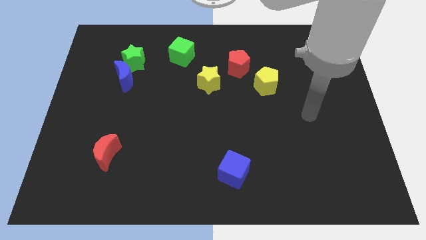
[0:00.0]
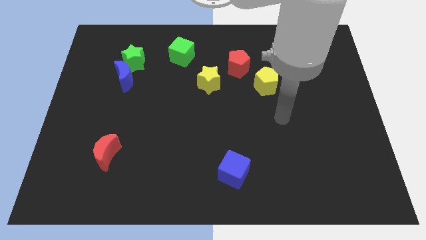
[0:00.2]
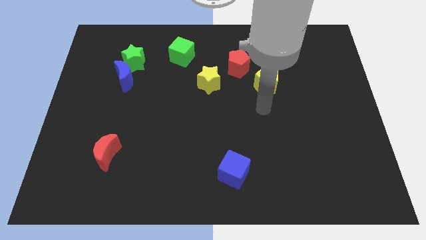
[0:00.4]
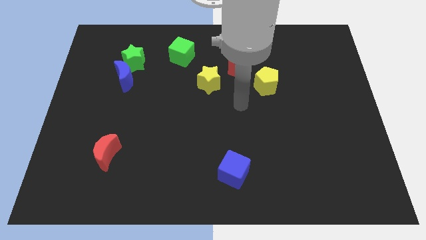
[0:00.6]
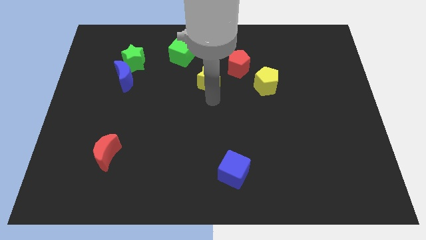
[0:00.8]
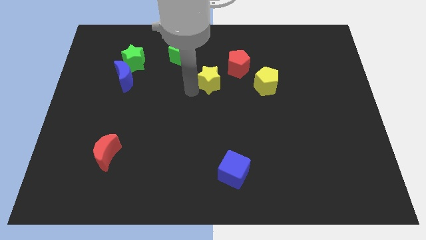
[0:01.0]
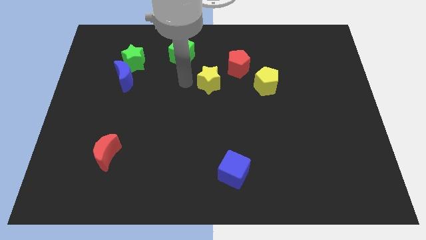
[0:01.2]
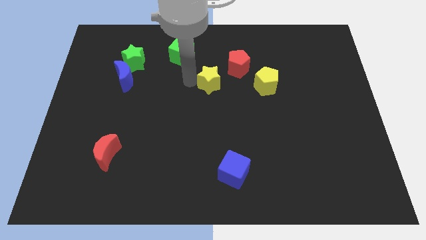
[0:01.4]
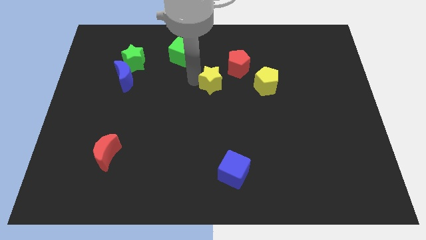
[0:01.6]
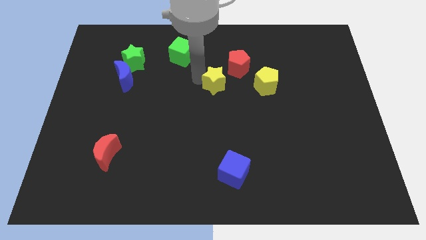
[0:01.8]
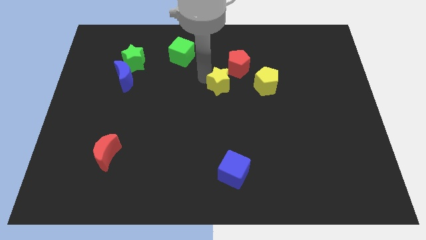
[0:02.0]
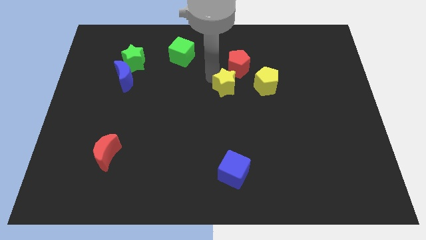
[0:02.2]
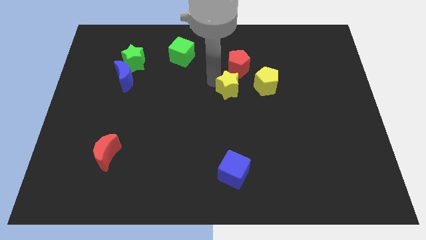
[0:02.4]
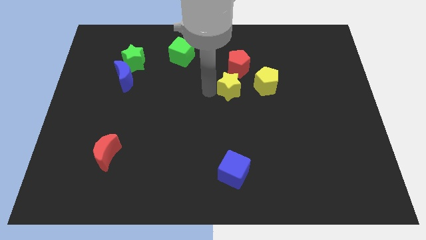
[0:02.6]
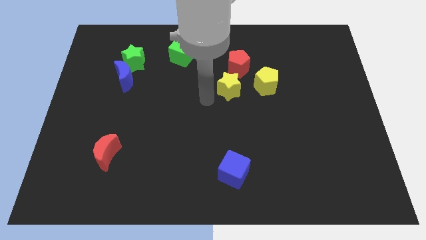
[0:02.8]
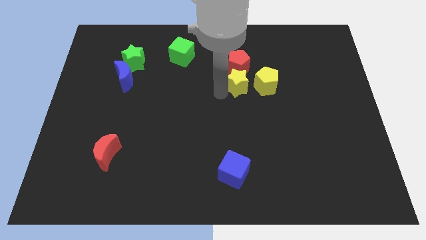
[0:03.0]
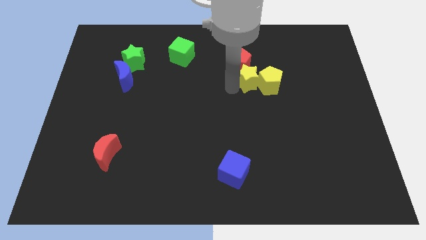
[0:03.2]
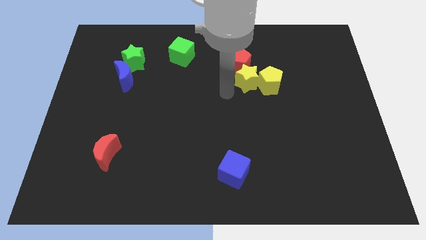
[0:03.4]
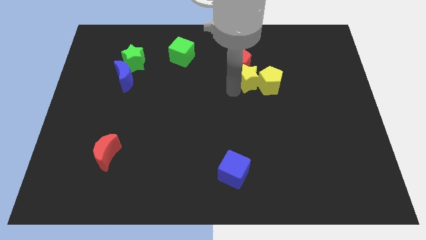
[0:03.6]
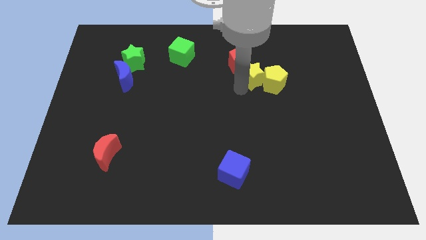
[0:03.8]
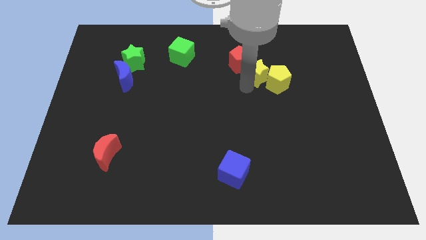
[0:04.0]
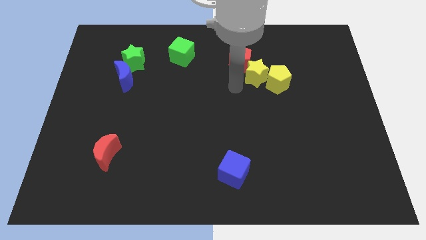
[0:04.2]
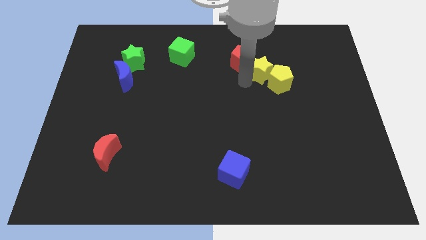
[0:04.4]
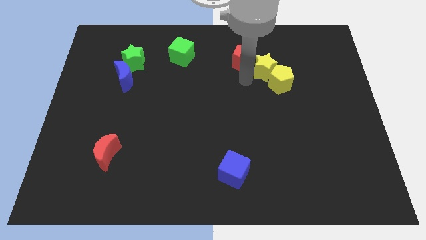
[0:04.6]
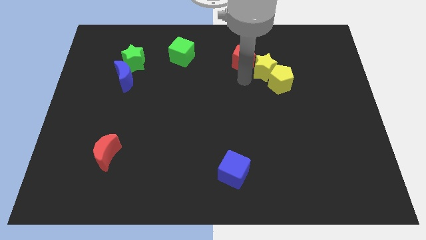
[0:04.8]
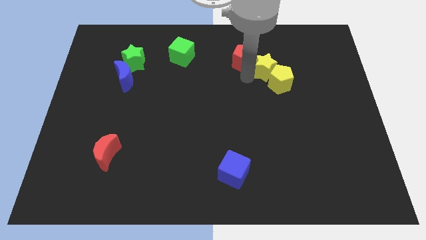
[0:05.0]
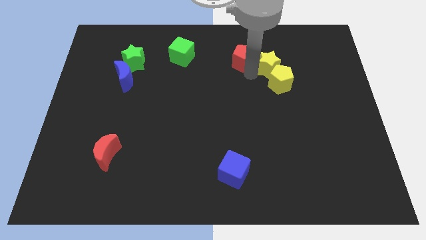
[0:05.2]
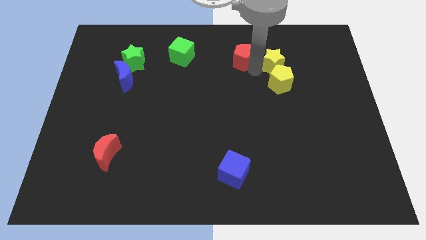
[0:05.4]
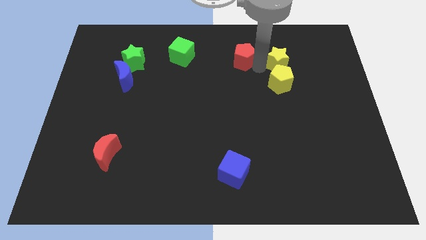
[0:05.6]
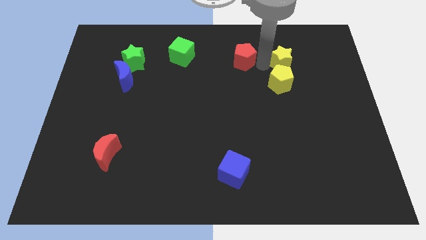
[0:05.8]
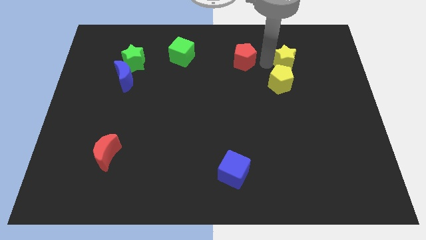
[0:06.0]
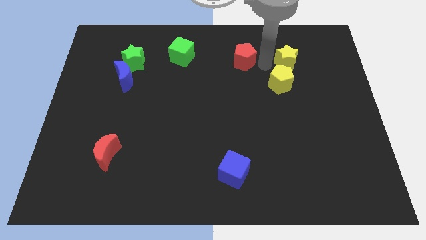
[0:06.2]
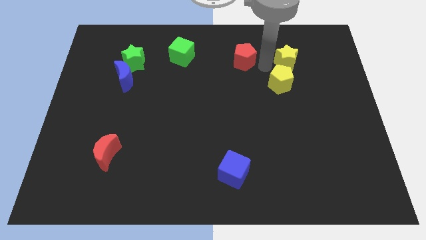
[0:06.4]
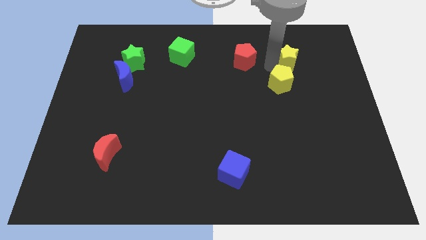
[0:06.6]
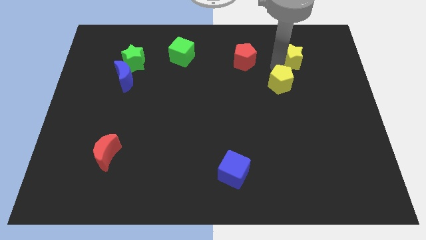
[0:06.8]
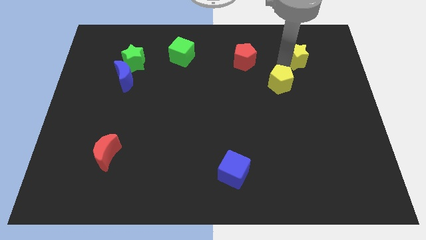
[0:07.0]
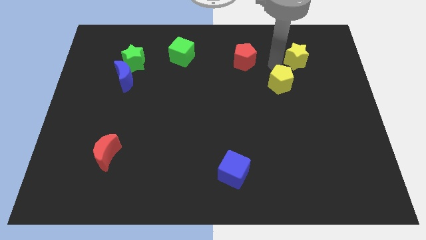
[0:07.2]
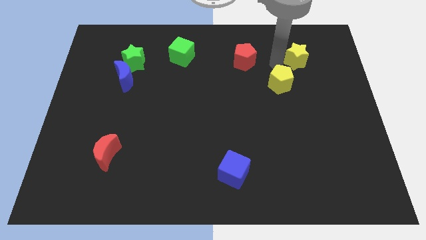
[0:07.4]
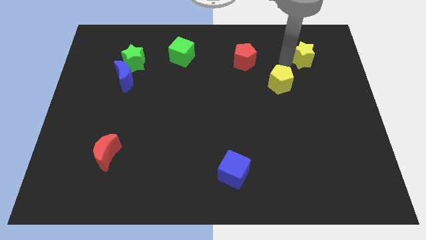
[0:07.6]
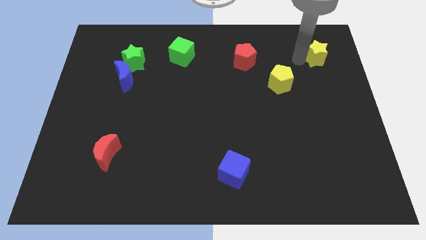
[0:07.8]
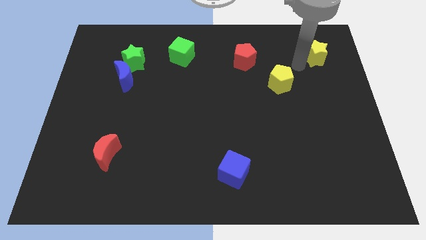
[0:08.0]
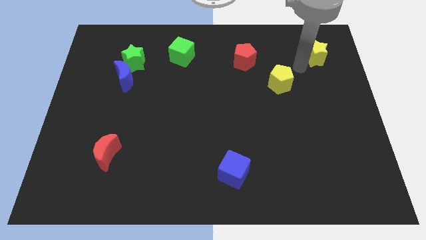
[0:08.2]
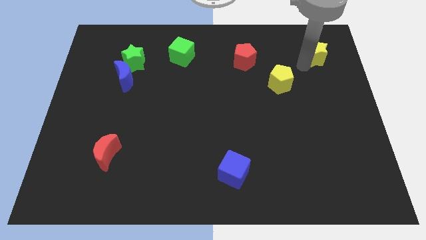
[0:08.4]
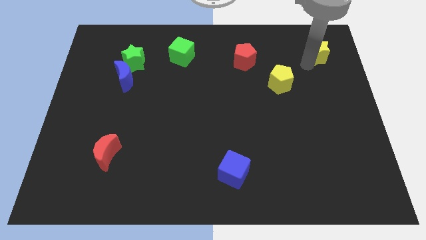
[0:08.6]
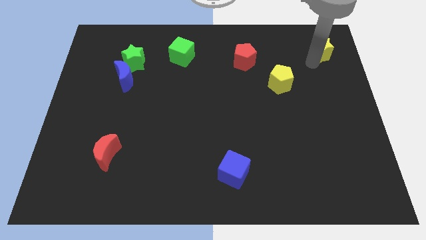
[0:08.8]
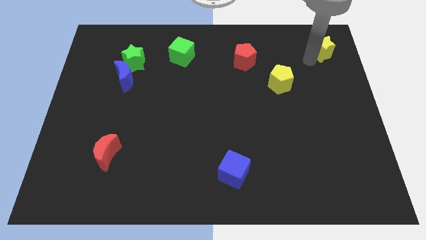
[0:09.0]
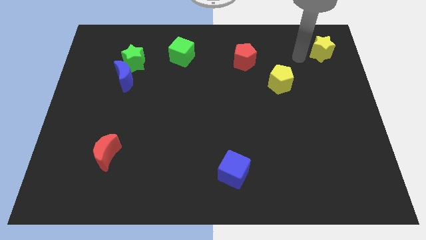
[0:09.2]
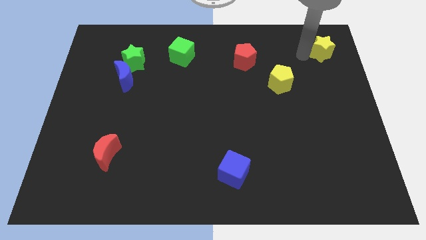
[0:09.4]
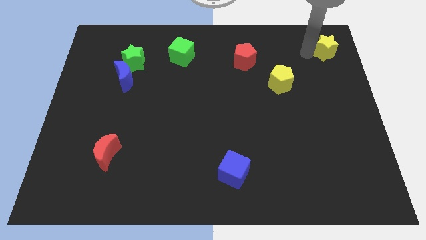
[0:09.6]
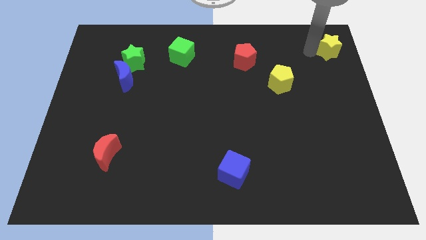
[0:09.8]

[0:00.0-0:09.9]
push the yellow star to the upper right corner

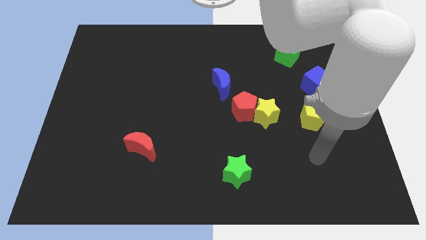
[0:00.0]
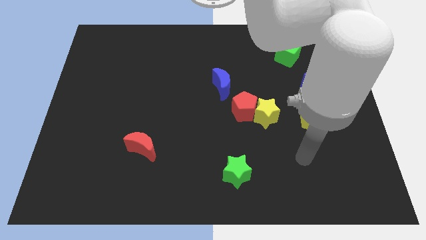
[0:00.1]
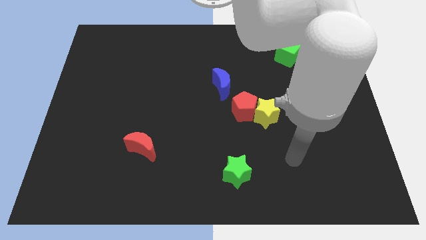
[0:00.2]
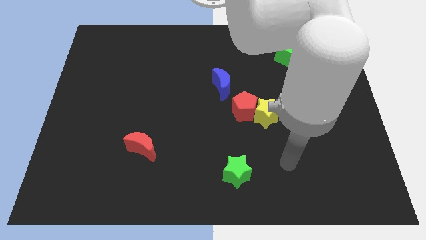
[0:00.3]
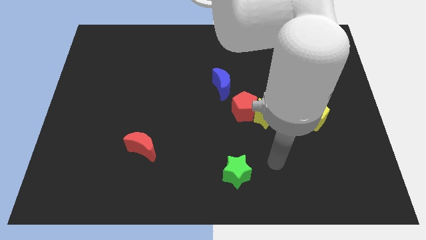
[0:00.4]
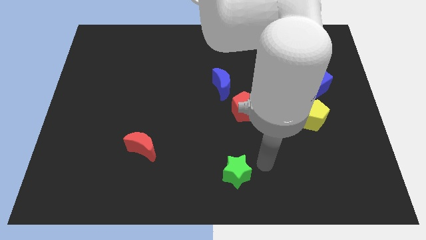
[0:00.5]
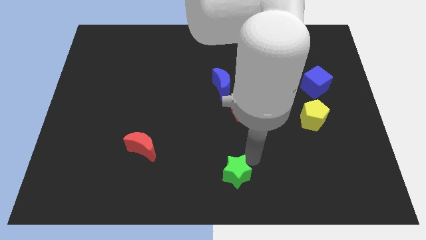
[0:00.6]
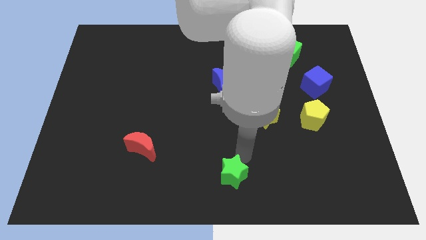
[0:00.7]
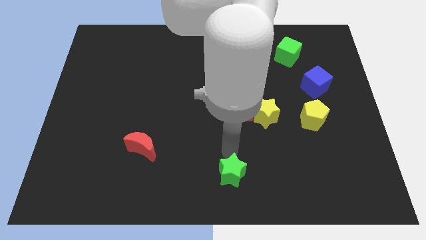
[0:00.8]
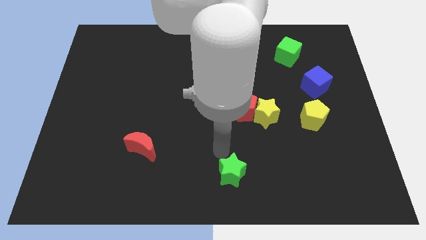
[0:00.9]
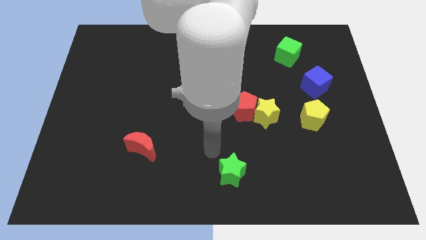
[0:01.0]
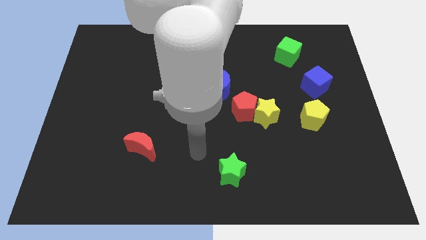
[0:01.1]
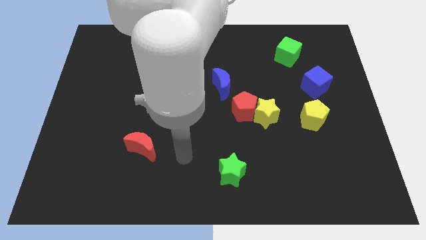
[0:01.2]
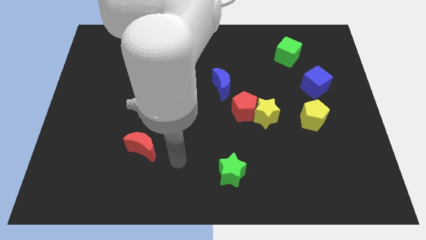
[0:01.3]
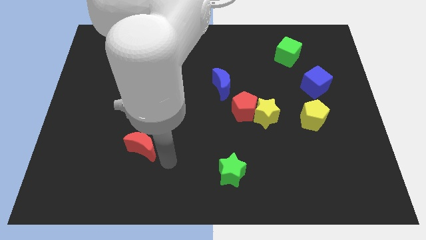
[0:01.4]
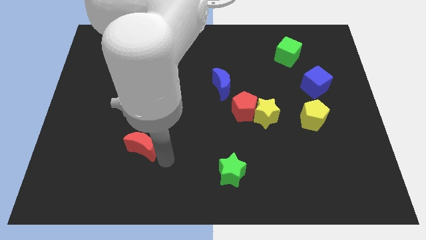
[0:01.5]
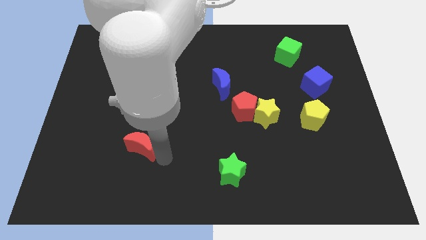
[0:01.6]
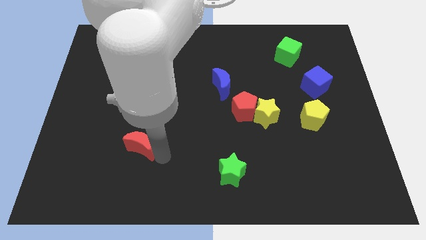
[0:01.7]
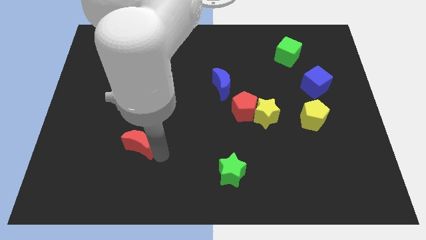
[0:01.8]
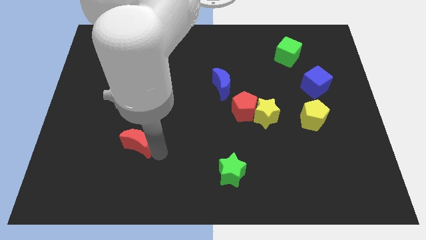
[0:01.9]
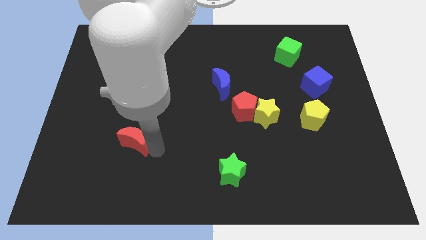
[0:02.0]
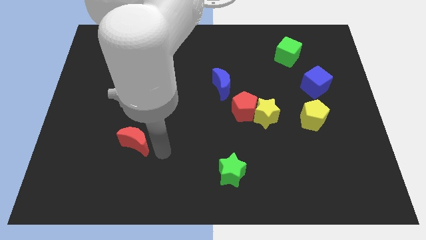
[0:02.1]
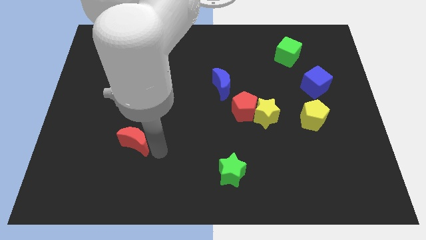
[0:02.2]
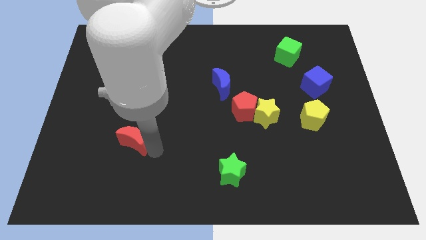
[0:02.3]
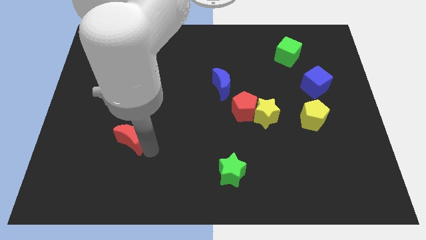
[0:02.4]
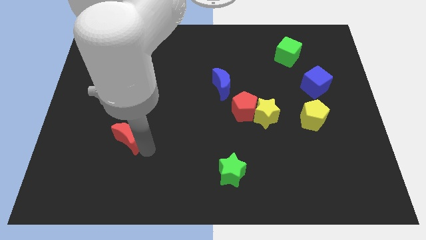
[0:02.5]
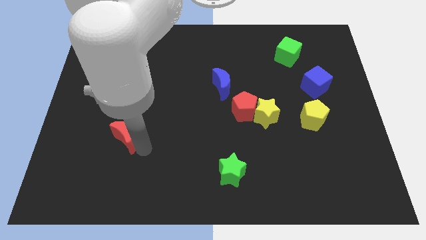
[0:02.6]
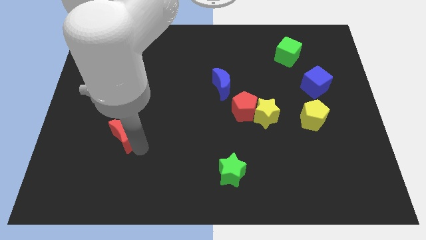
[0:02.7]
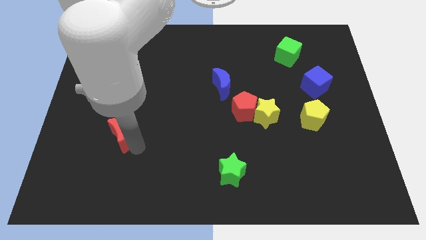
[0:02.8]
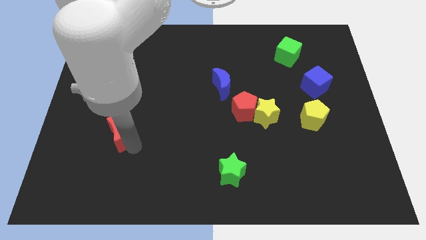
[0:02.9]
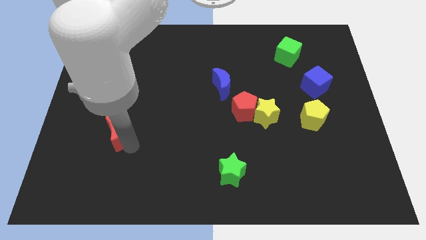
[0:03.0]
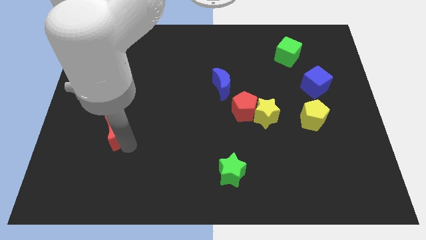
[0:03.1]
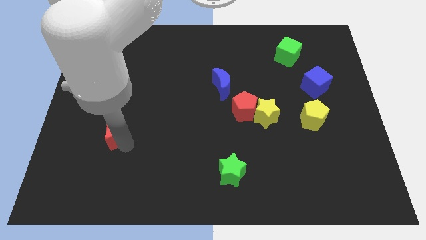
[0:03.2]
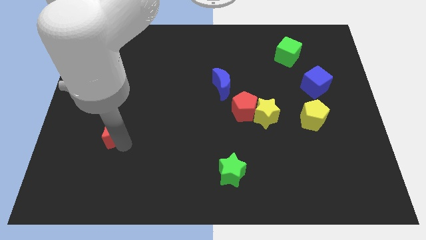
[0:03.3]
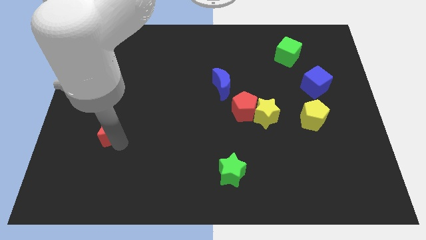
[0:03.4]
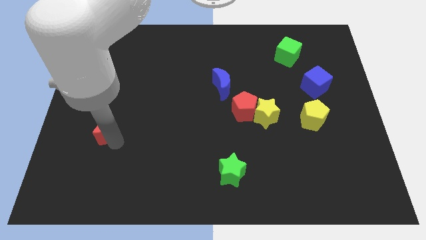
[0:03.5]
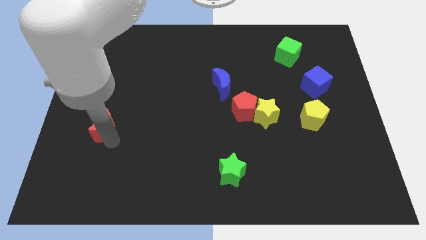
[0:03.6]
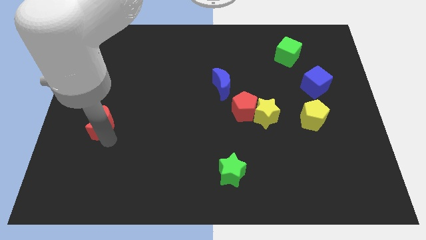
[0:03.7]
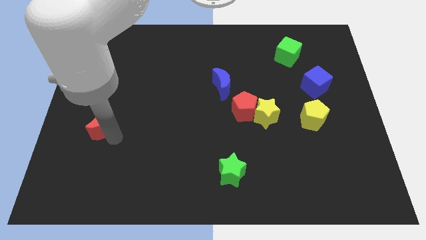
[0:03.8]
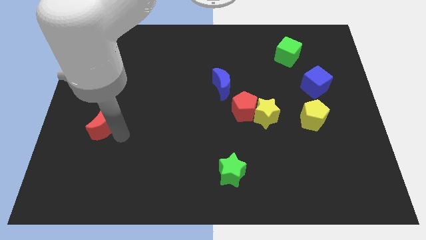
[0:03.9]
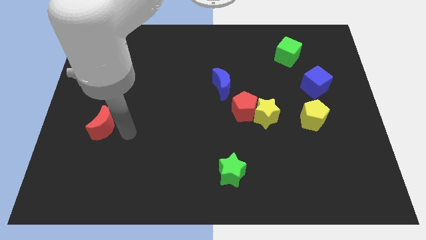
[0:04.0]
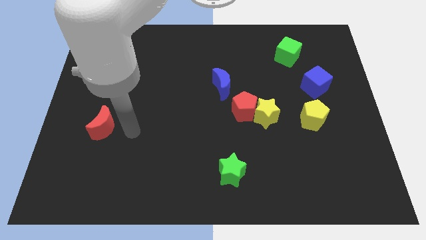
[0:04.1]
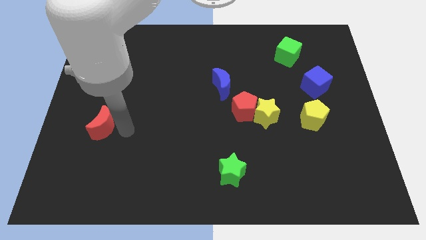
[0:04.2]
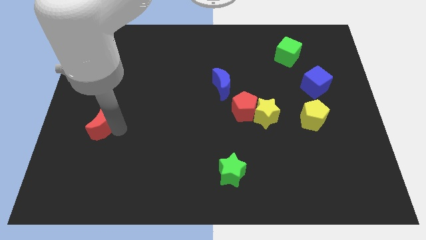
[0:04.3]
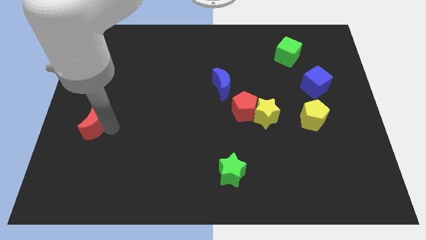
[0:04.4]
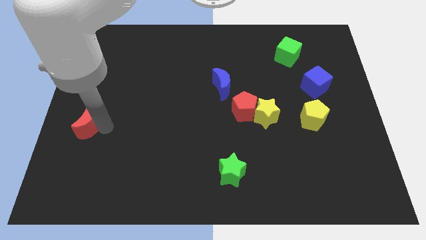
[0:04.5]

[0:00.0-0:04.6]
slide the red moon to the center left
